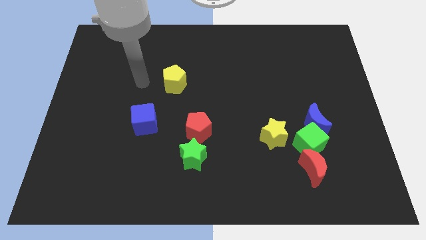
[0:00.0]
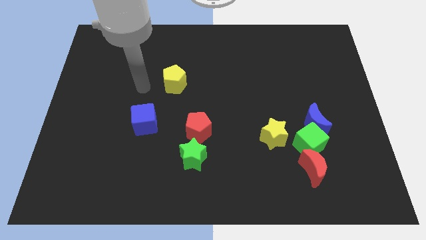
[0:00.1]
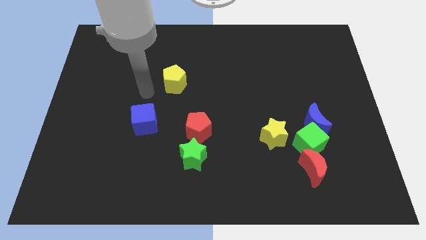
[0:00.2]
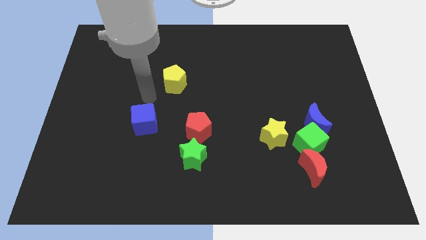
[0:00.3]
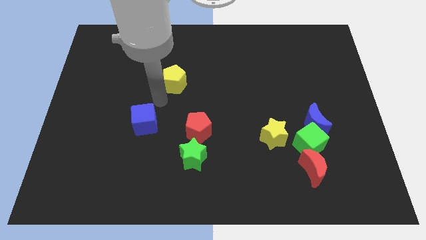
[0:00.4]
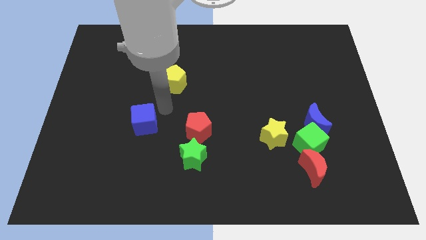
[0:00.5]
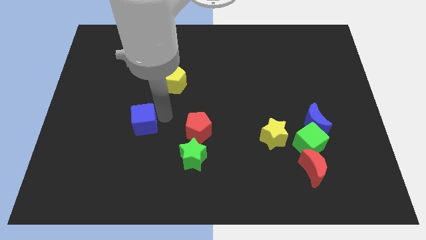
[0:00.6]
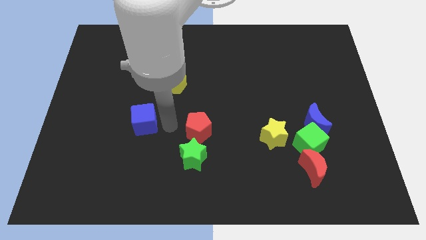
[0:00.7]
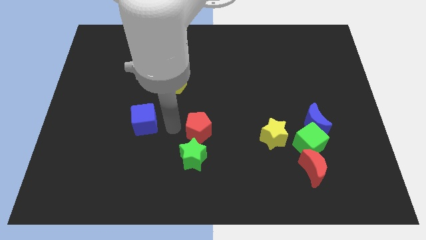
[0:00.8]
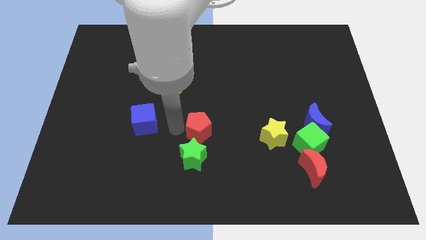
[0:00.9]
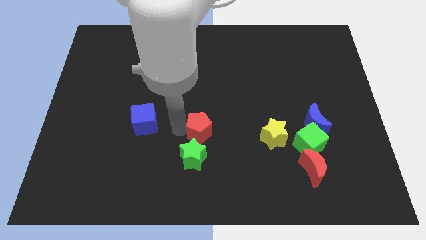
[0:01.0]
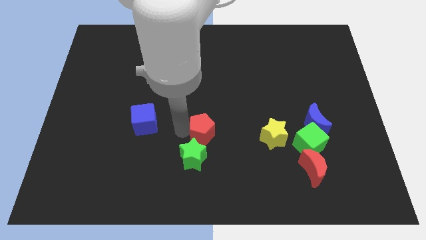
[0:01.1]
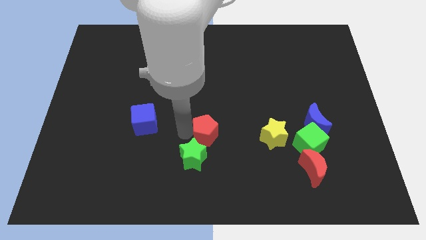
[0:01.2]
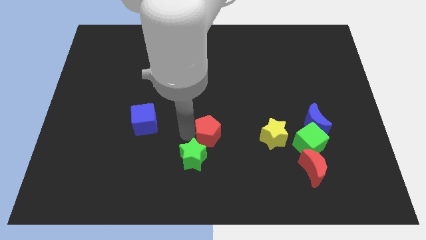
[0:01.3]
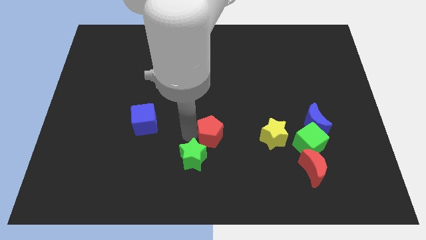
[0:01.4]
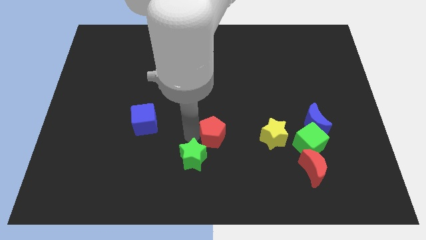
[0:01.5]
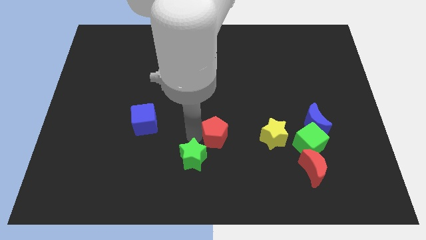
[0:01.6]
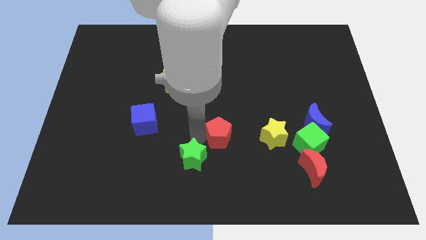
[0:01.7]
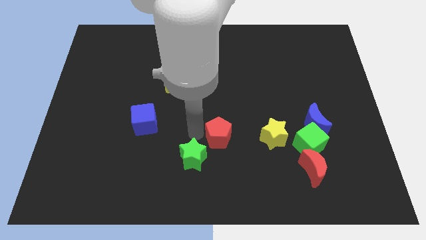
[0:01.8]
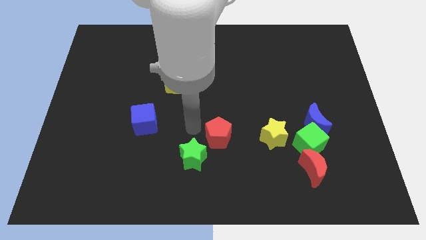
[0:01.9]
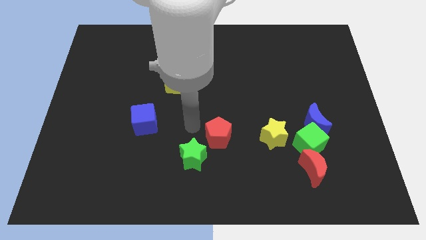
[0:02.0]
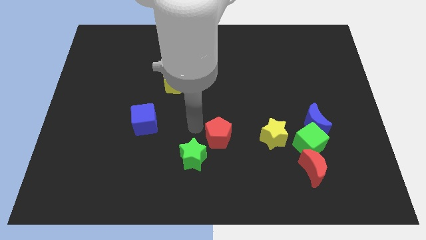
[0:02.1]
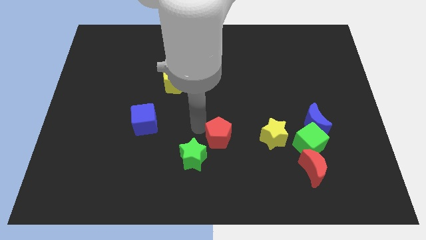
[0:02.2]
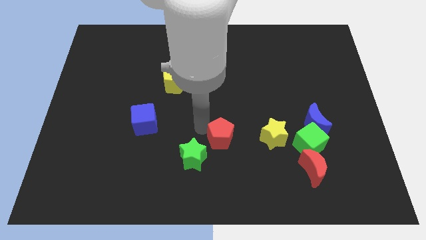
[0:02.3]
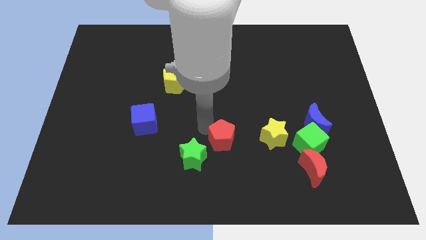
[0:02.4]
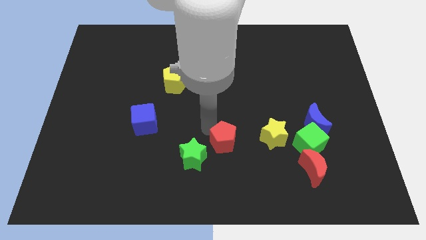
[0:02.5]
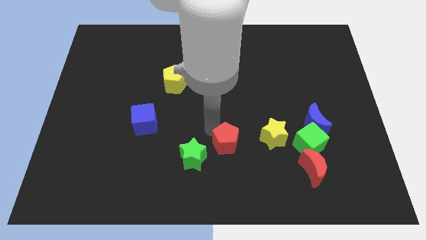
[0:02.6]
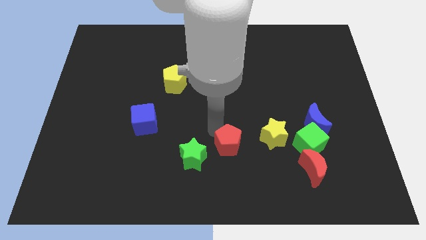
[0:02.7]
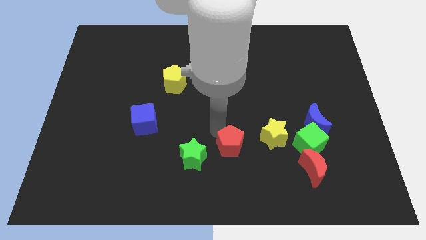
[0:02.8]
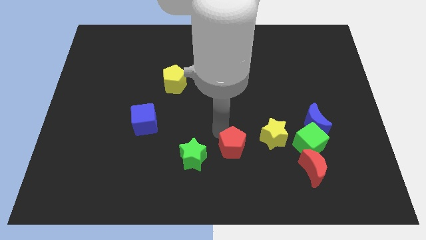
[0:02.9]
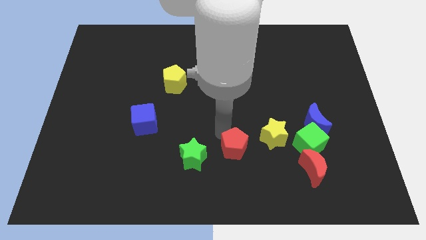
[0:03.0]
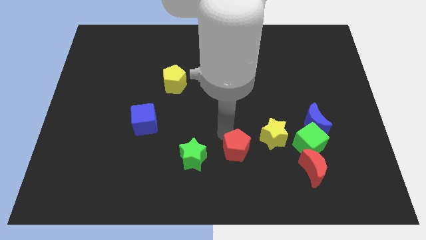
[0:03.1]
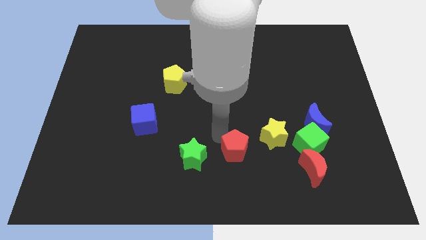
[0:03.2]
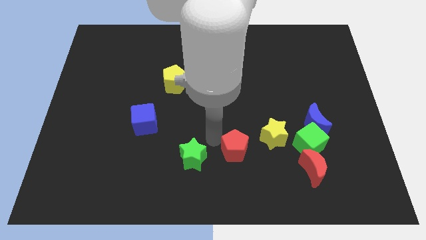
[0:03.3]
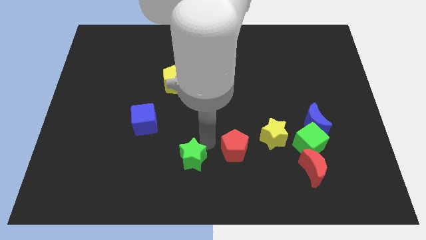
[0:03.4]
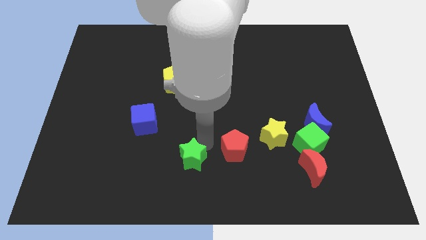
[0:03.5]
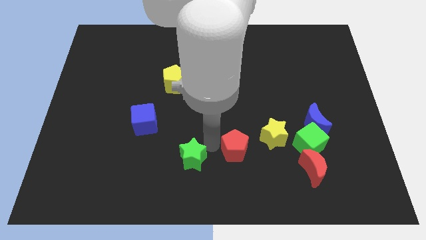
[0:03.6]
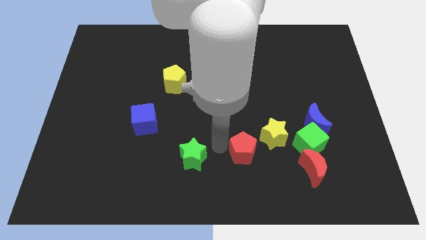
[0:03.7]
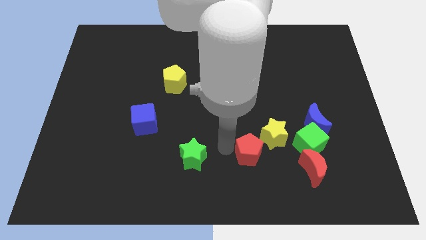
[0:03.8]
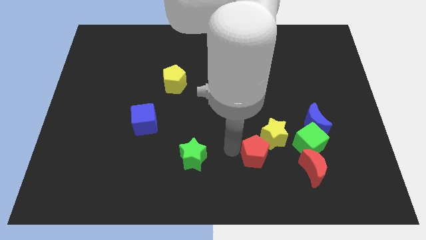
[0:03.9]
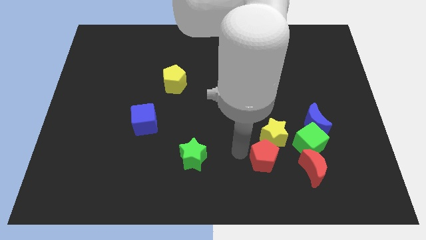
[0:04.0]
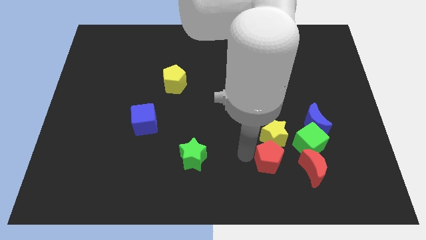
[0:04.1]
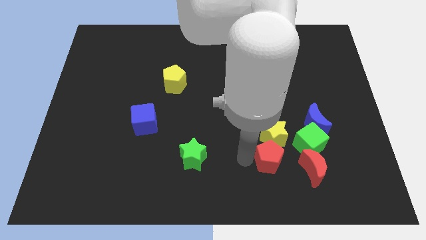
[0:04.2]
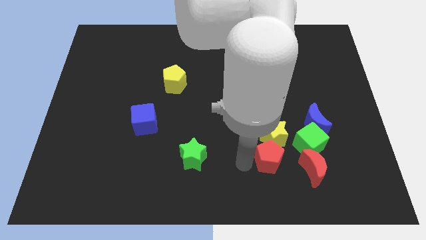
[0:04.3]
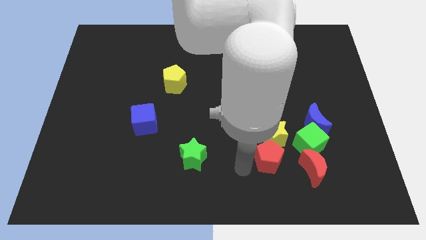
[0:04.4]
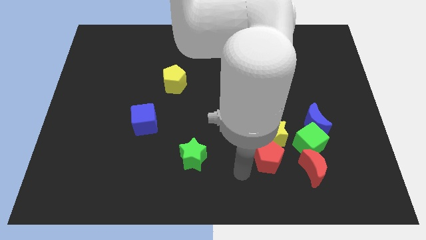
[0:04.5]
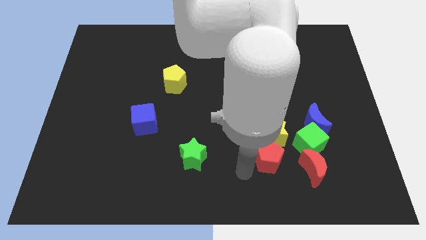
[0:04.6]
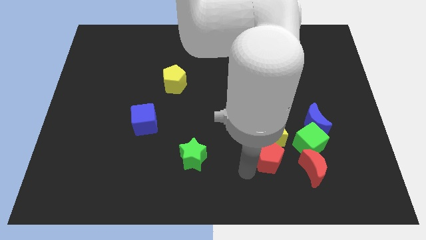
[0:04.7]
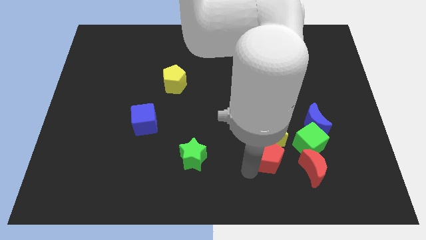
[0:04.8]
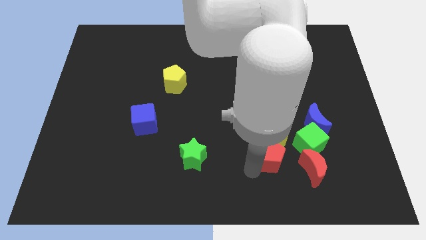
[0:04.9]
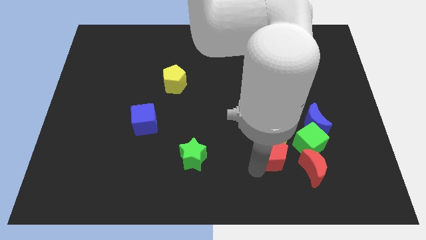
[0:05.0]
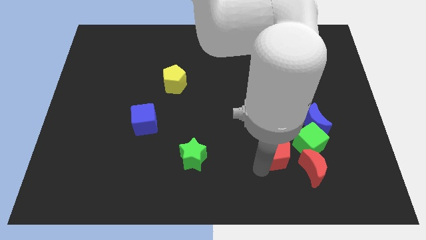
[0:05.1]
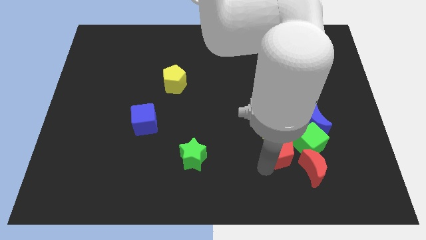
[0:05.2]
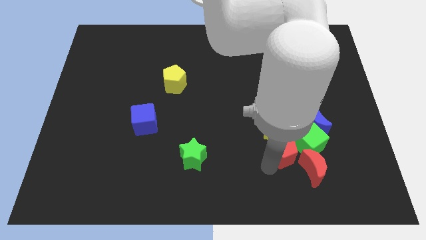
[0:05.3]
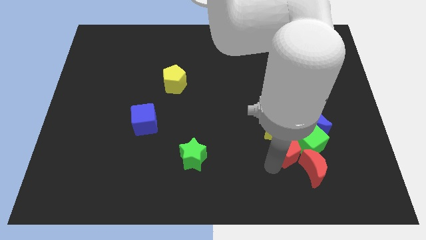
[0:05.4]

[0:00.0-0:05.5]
push the red pentagon to the green cube

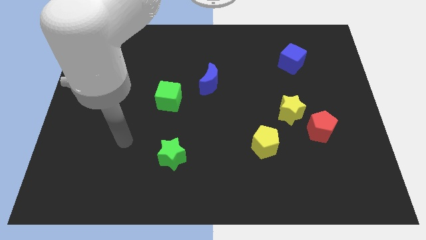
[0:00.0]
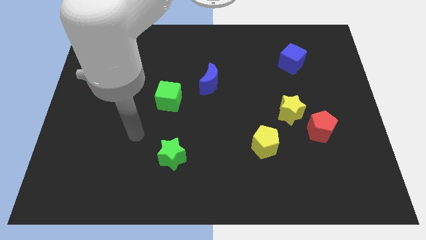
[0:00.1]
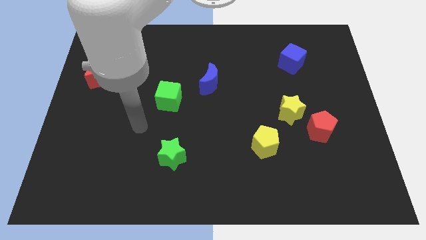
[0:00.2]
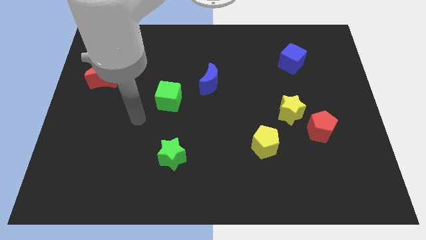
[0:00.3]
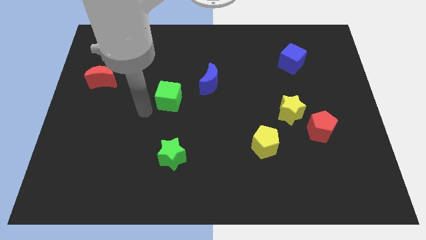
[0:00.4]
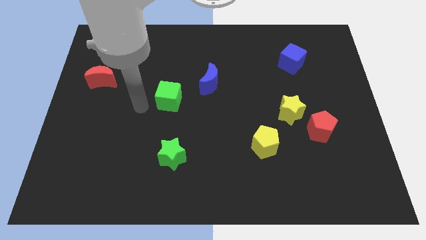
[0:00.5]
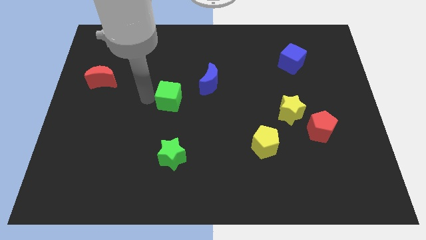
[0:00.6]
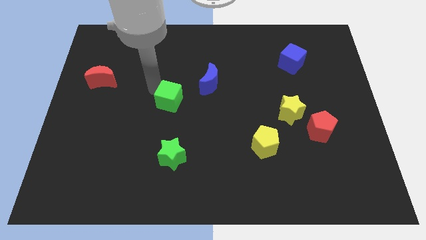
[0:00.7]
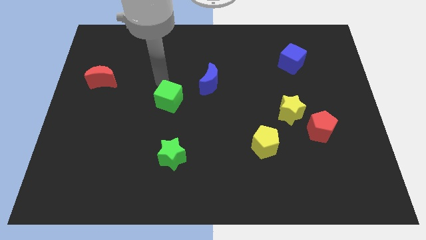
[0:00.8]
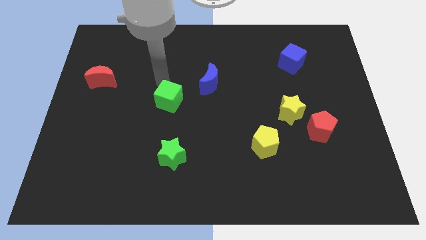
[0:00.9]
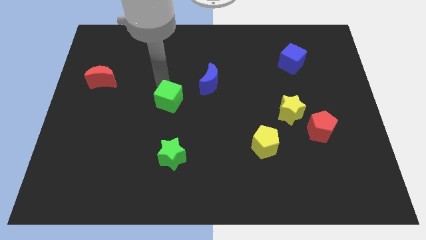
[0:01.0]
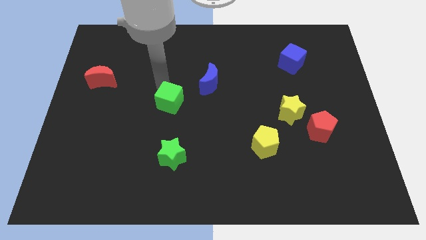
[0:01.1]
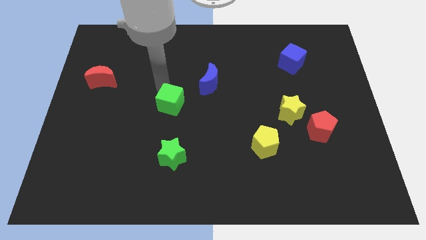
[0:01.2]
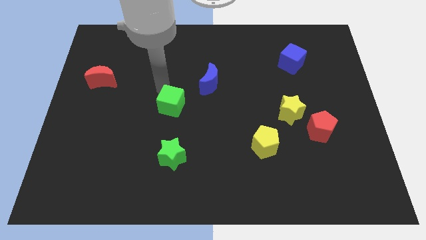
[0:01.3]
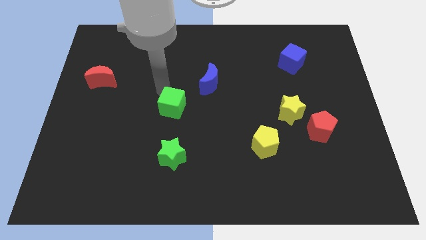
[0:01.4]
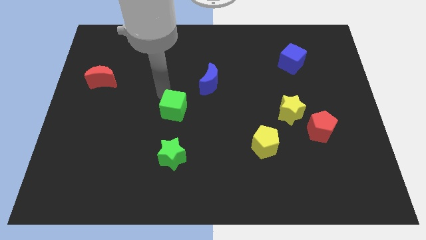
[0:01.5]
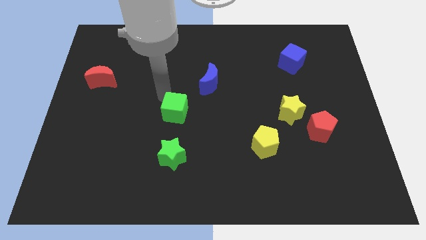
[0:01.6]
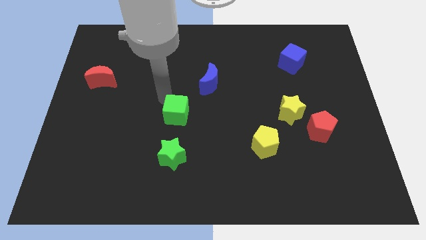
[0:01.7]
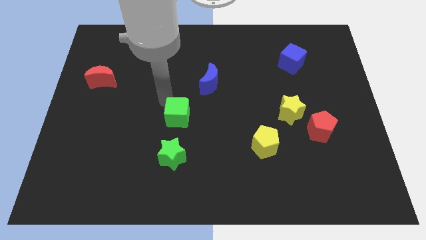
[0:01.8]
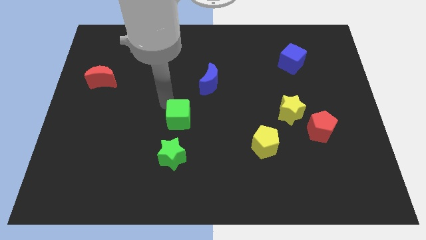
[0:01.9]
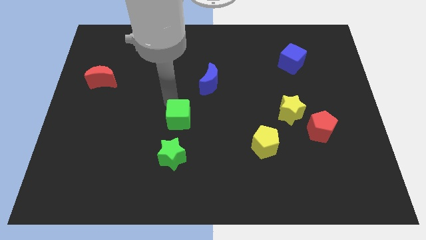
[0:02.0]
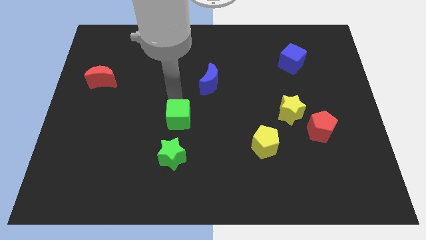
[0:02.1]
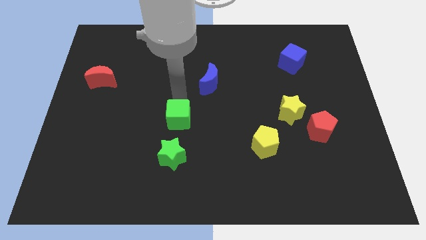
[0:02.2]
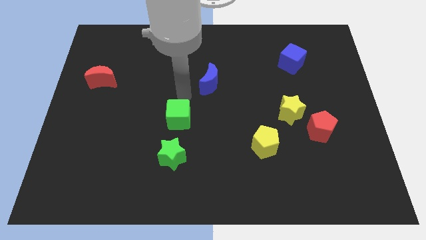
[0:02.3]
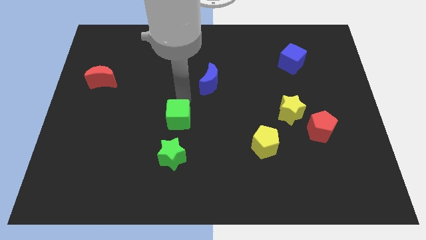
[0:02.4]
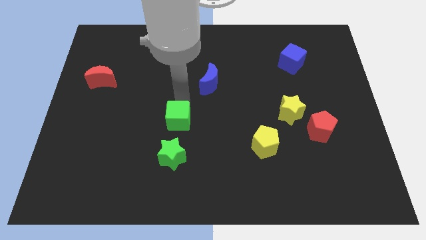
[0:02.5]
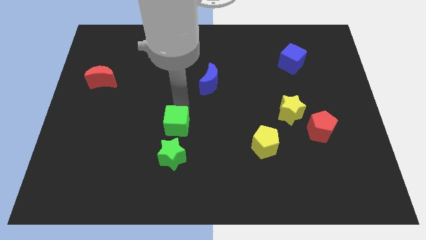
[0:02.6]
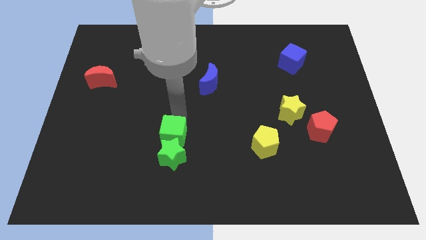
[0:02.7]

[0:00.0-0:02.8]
move the green cube towards the green star
